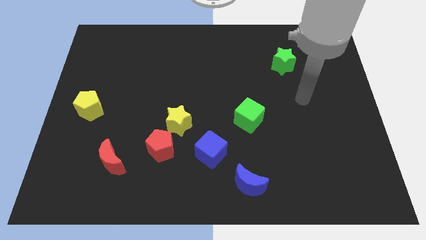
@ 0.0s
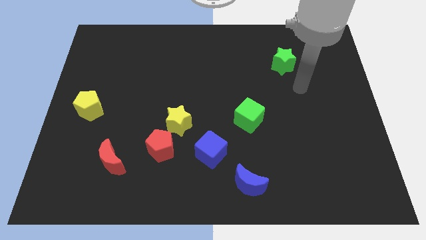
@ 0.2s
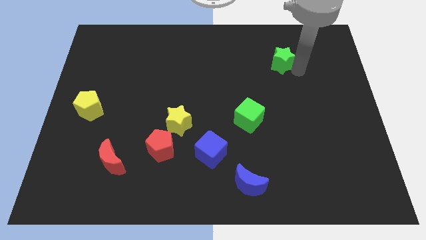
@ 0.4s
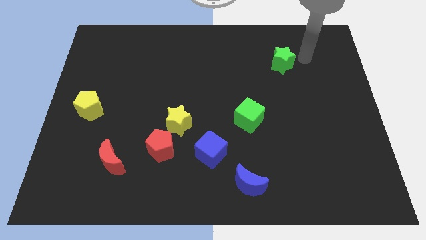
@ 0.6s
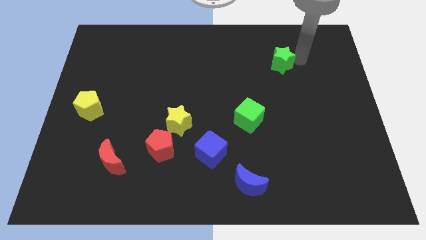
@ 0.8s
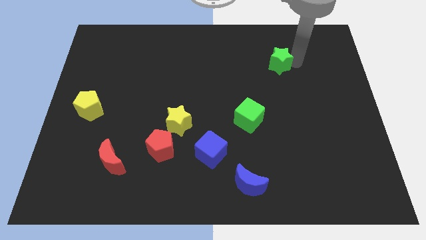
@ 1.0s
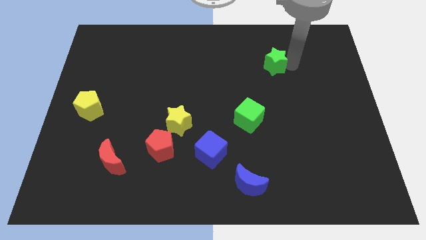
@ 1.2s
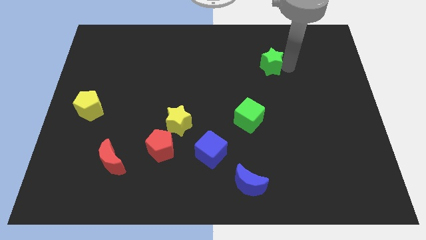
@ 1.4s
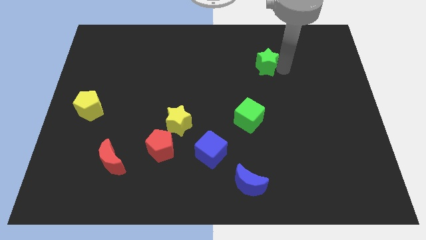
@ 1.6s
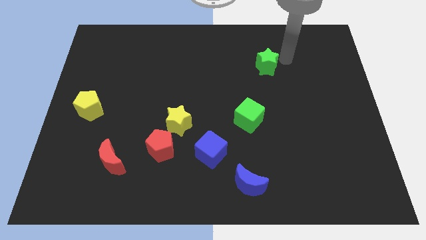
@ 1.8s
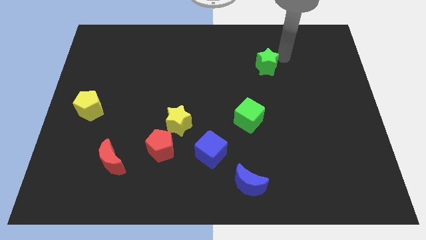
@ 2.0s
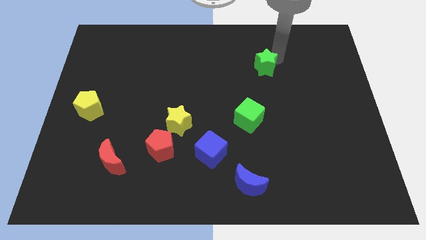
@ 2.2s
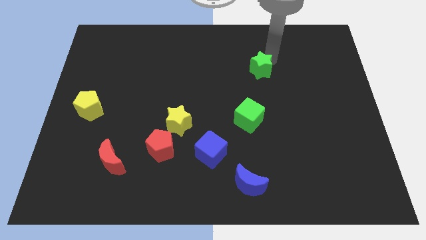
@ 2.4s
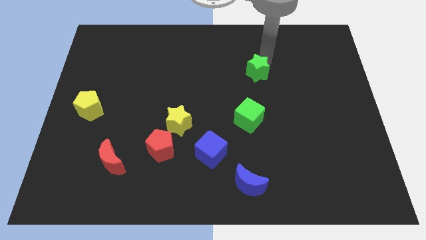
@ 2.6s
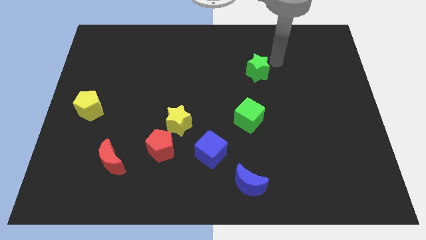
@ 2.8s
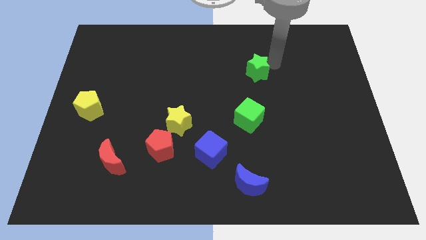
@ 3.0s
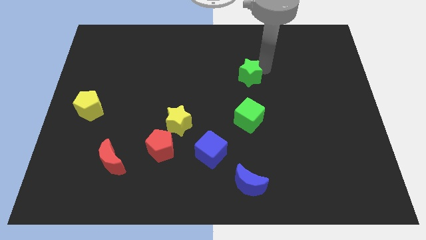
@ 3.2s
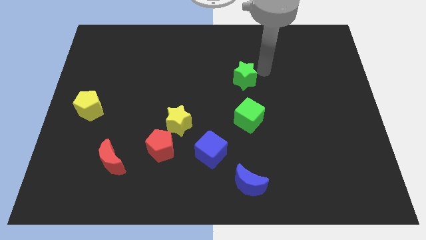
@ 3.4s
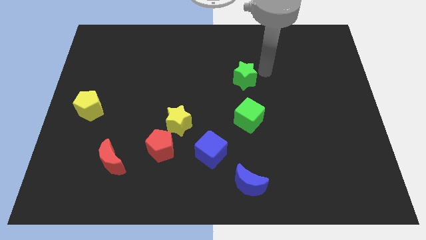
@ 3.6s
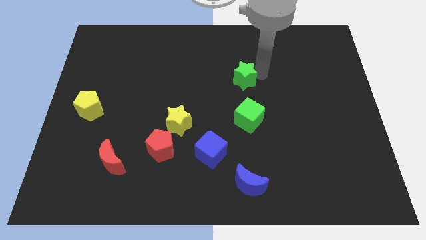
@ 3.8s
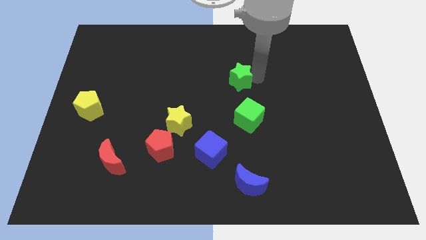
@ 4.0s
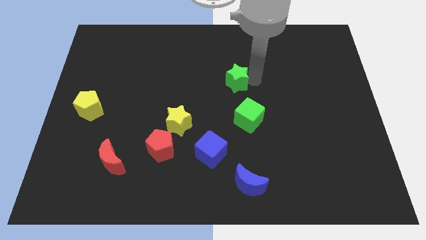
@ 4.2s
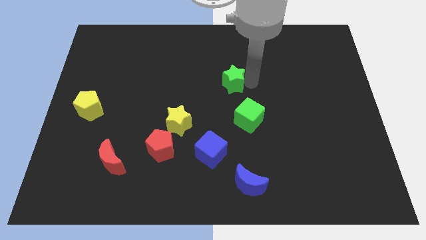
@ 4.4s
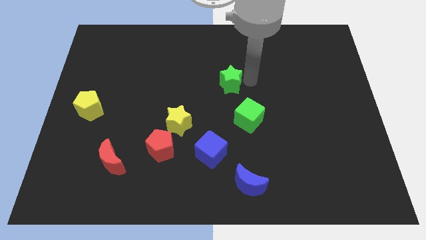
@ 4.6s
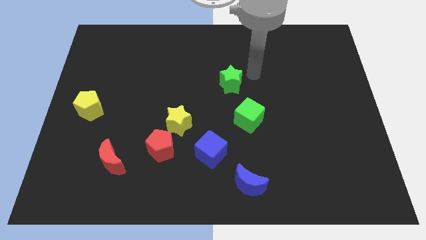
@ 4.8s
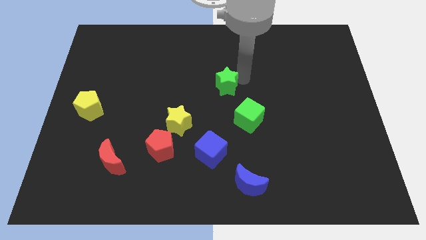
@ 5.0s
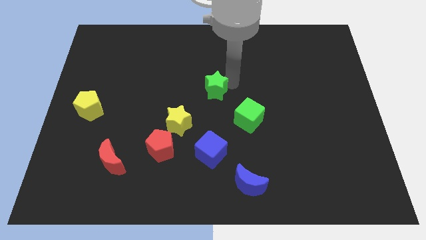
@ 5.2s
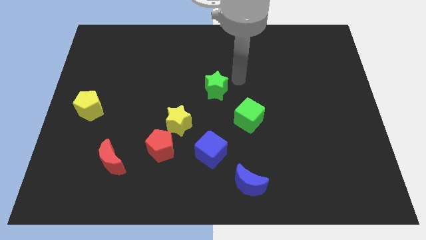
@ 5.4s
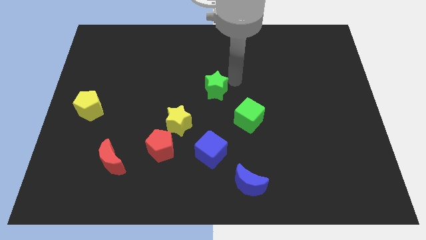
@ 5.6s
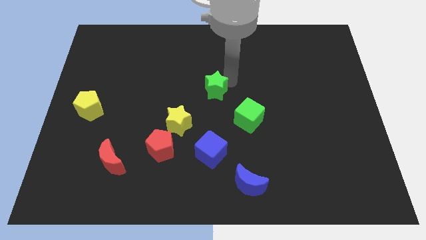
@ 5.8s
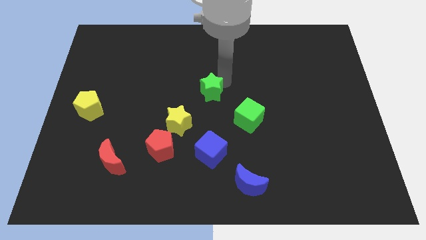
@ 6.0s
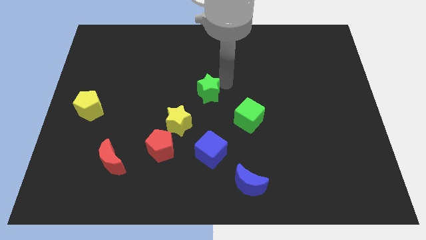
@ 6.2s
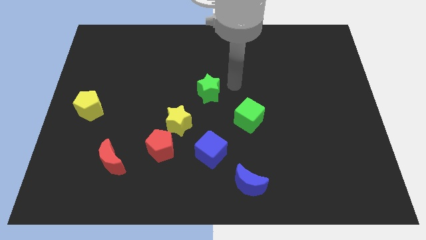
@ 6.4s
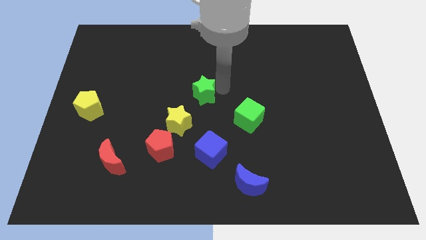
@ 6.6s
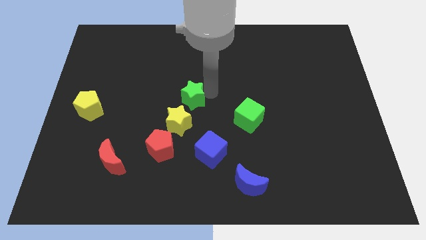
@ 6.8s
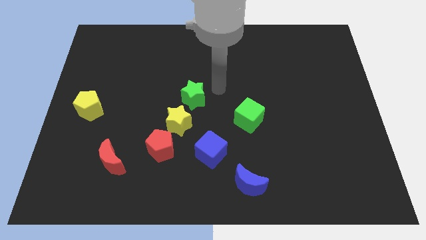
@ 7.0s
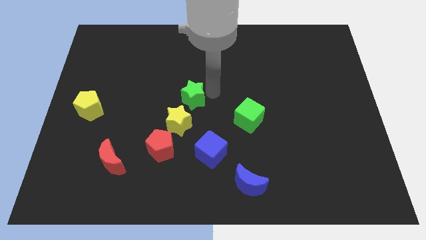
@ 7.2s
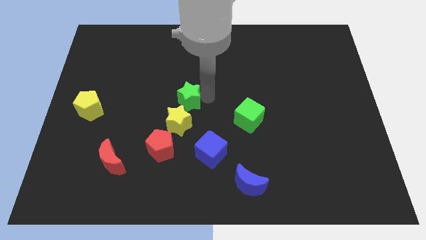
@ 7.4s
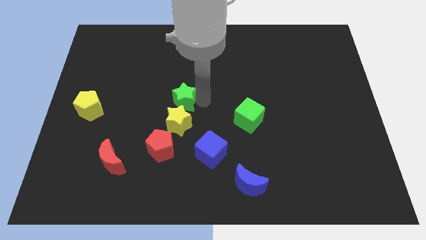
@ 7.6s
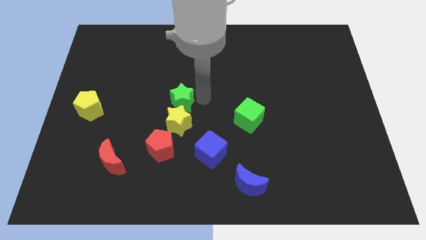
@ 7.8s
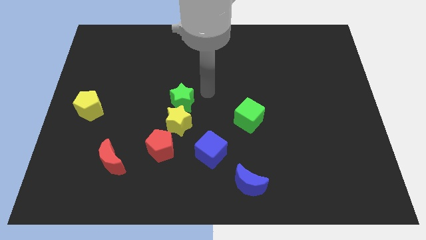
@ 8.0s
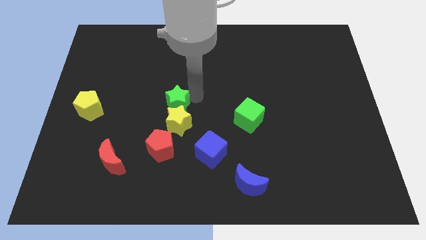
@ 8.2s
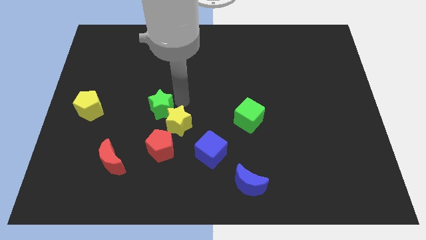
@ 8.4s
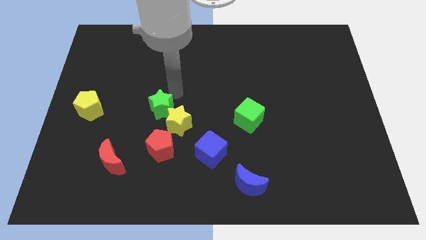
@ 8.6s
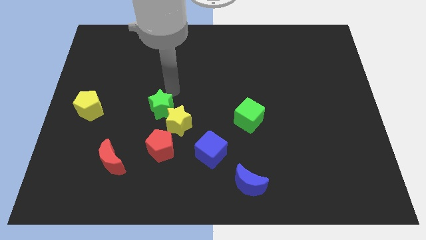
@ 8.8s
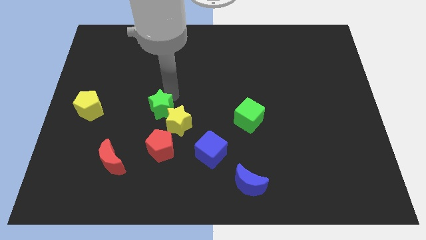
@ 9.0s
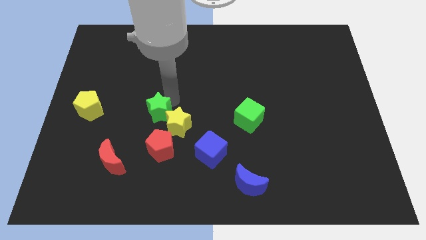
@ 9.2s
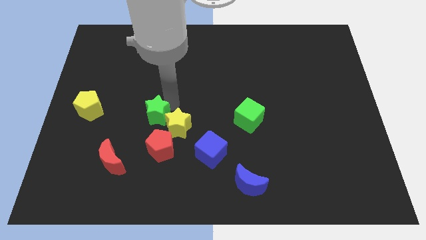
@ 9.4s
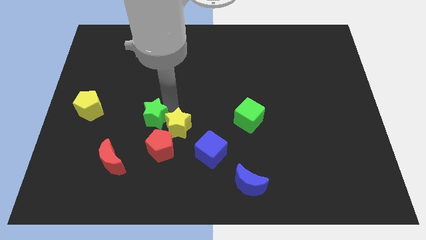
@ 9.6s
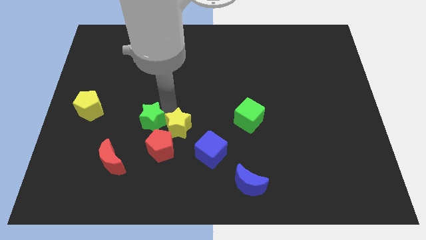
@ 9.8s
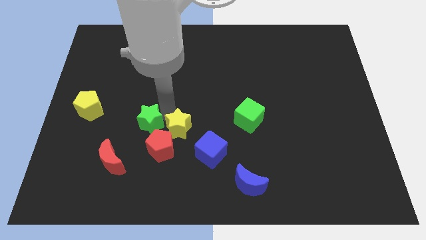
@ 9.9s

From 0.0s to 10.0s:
slide the green star to the top right of the red moon

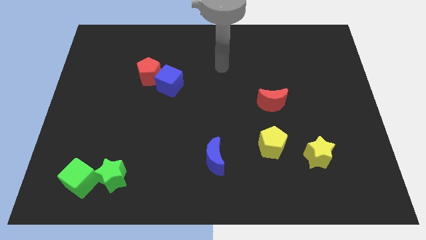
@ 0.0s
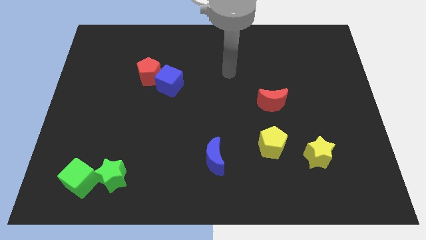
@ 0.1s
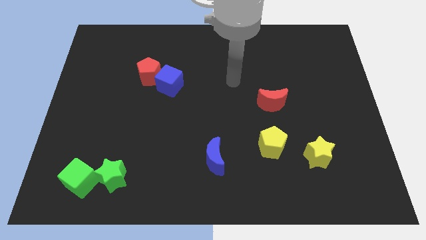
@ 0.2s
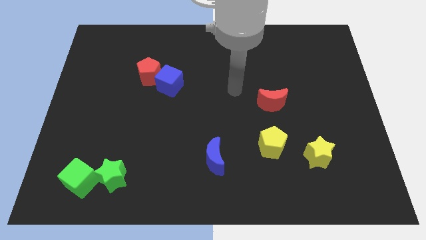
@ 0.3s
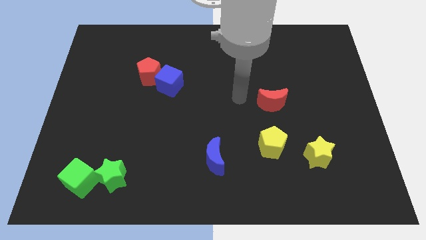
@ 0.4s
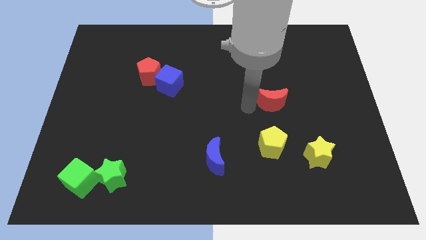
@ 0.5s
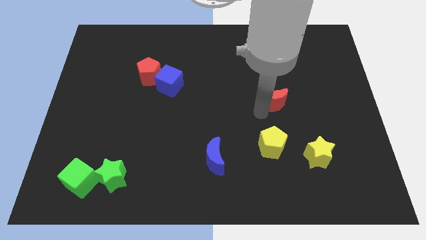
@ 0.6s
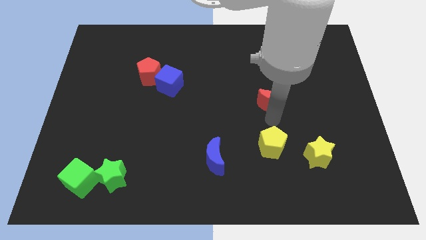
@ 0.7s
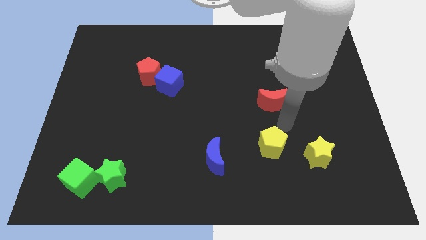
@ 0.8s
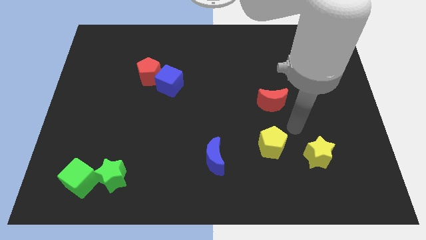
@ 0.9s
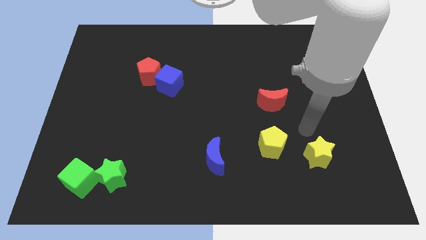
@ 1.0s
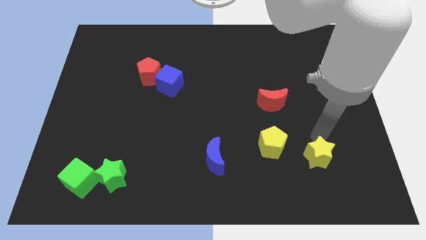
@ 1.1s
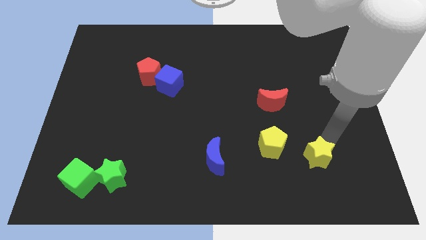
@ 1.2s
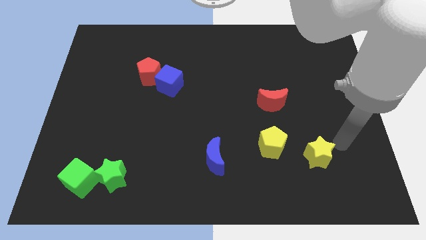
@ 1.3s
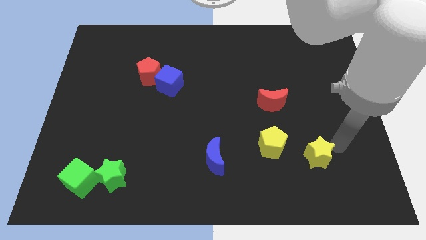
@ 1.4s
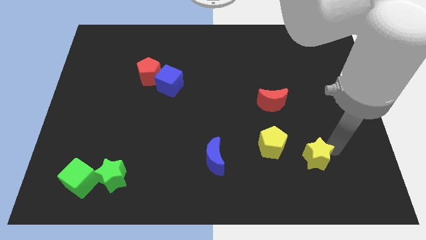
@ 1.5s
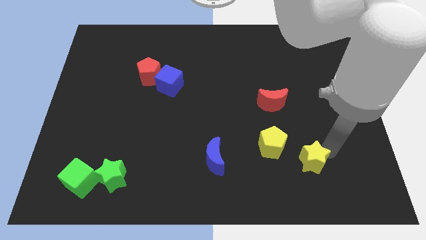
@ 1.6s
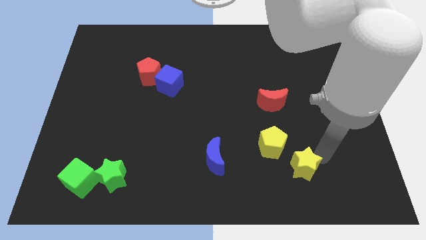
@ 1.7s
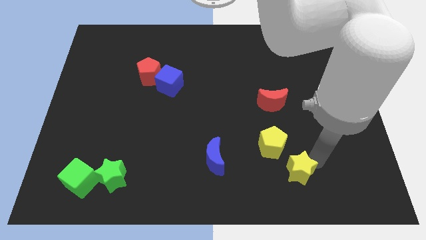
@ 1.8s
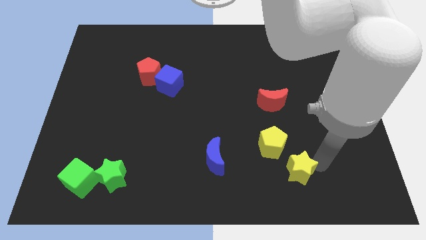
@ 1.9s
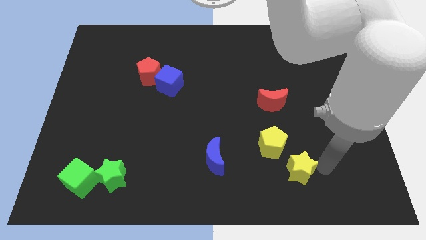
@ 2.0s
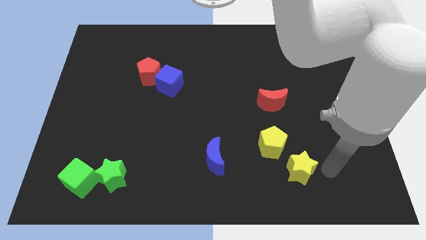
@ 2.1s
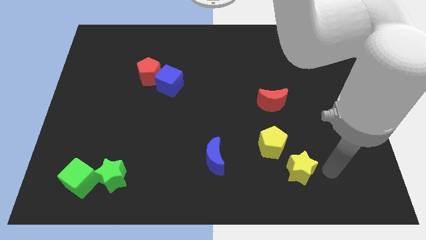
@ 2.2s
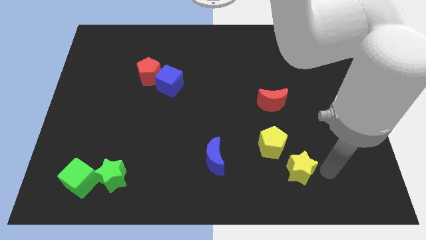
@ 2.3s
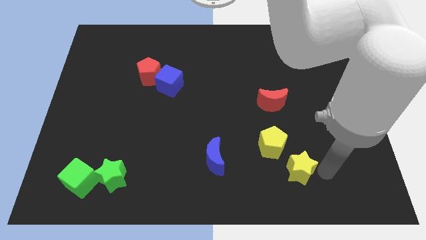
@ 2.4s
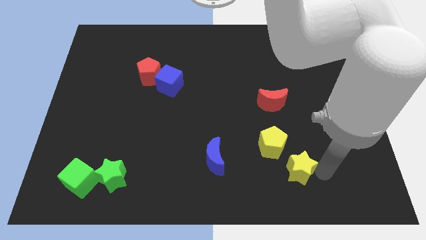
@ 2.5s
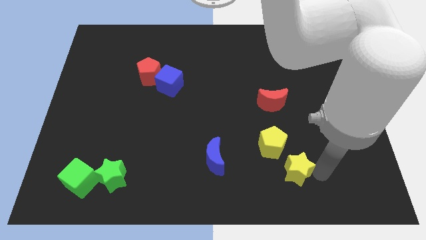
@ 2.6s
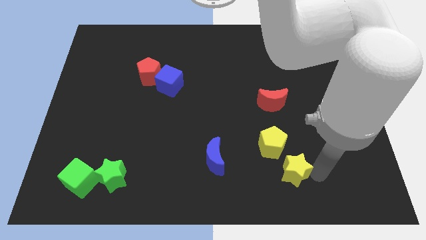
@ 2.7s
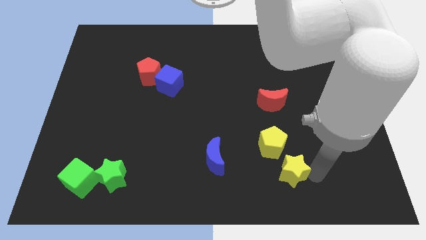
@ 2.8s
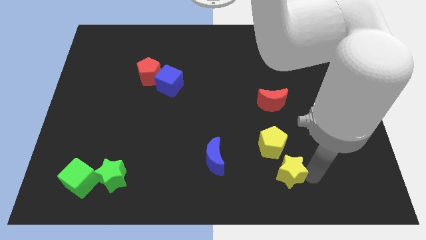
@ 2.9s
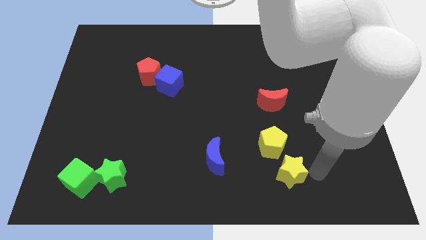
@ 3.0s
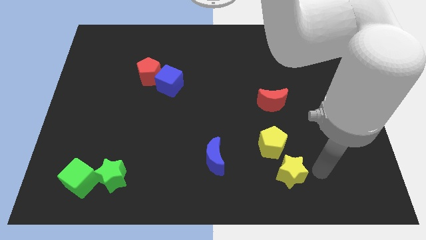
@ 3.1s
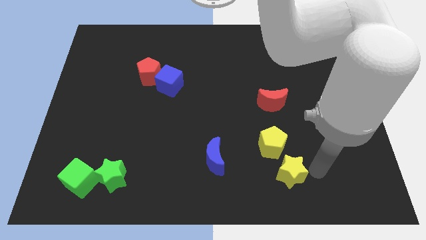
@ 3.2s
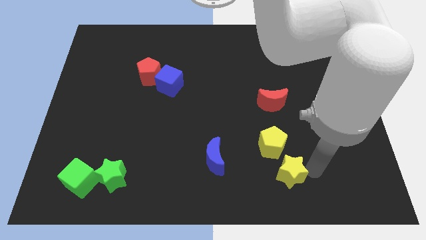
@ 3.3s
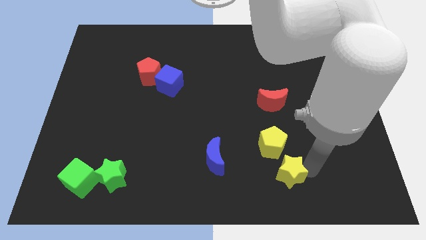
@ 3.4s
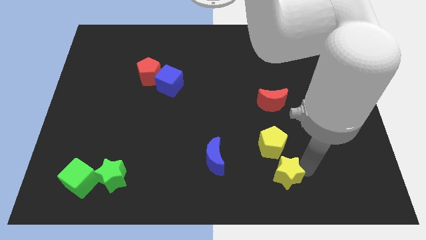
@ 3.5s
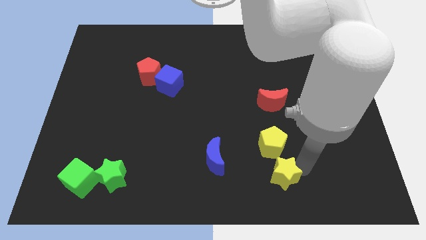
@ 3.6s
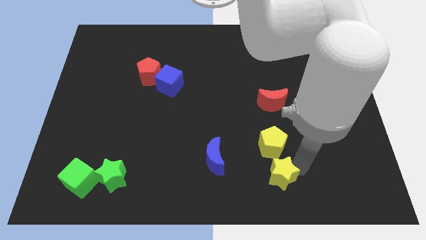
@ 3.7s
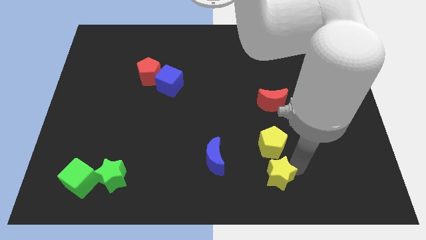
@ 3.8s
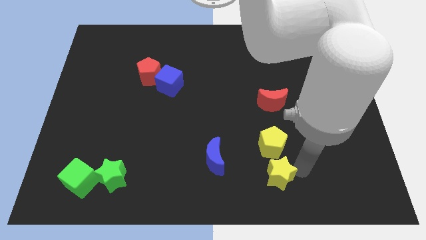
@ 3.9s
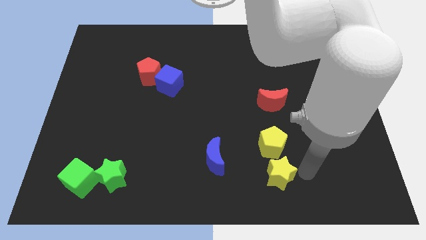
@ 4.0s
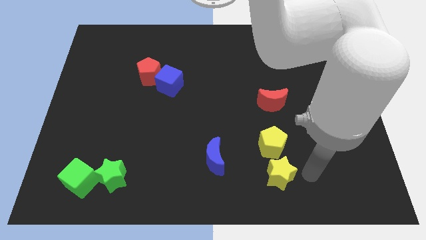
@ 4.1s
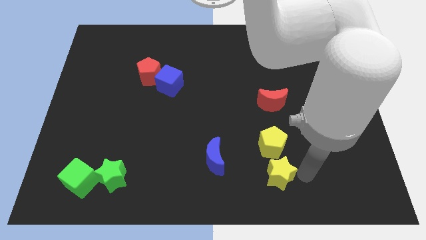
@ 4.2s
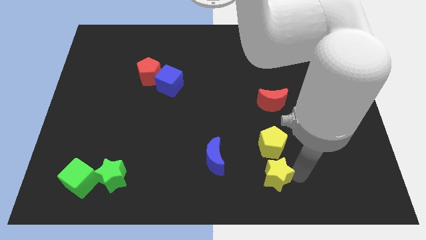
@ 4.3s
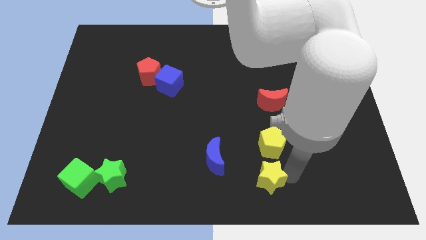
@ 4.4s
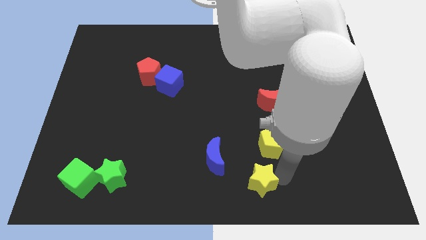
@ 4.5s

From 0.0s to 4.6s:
put the yellow star to the bottom right of the blue moon
